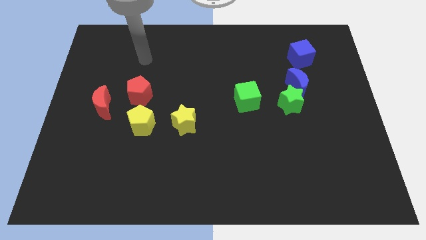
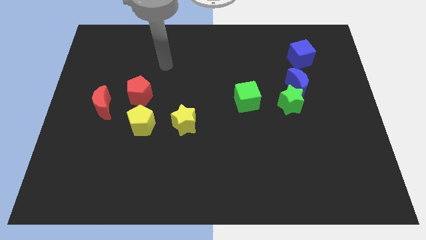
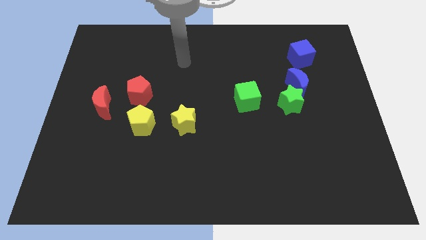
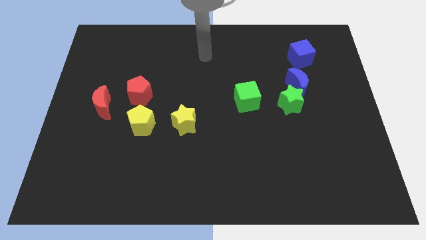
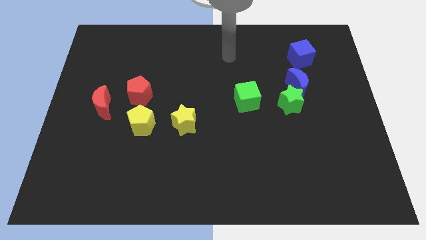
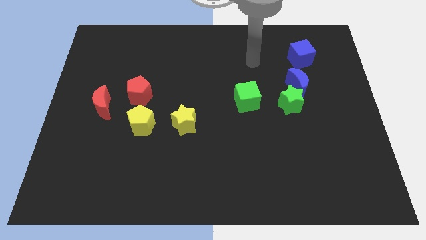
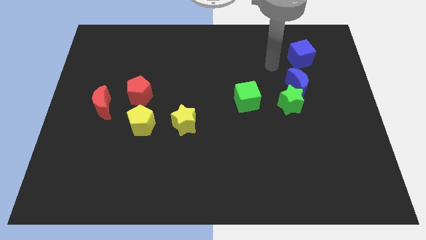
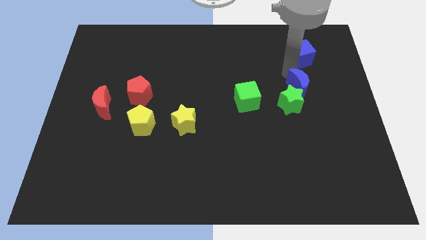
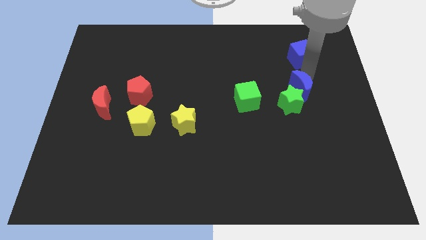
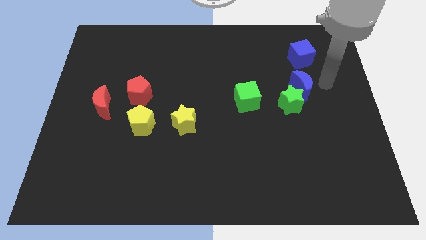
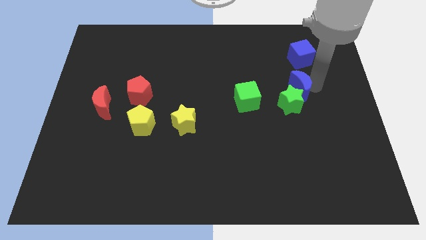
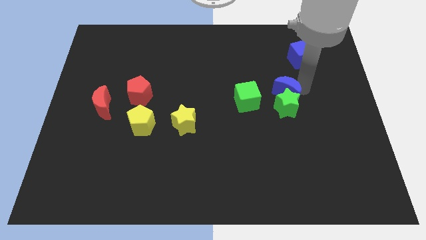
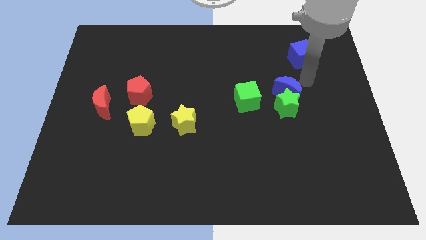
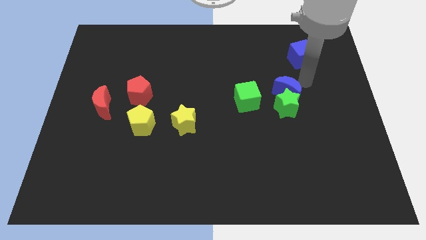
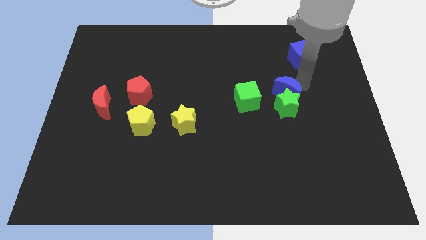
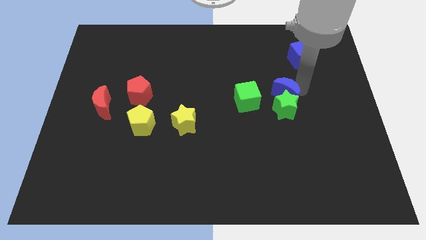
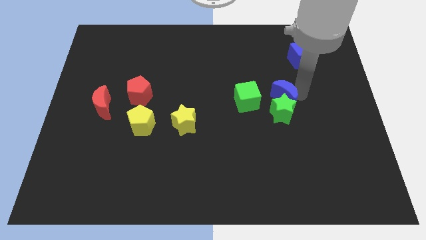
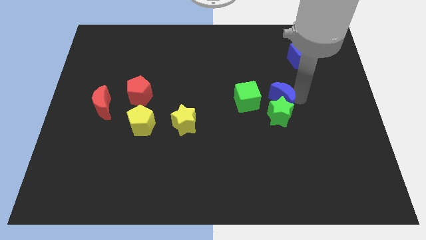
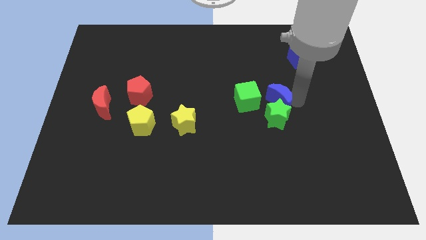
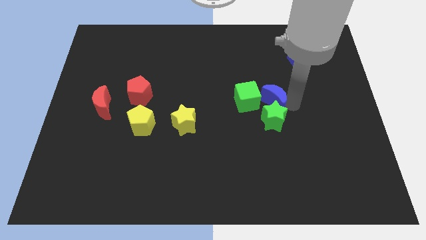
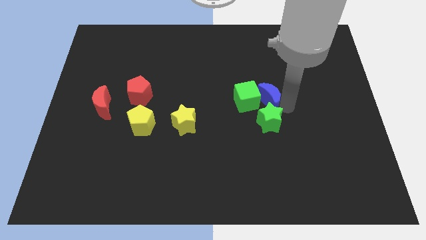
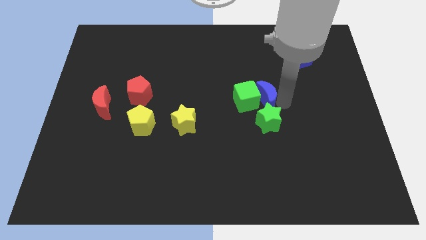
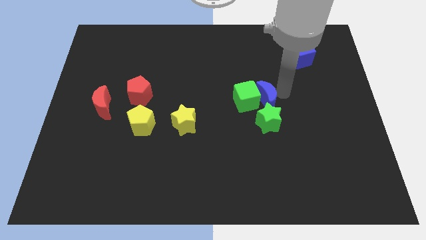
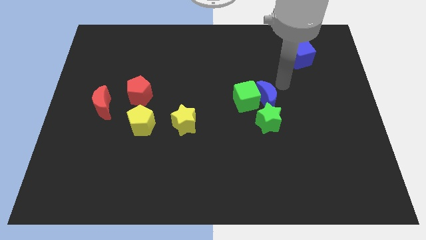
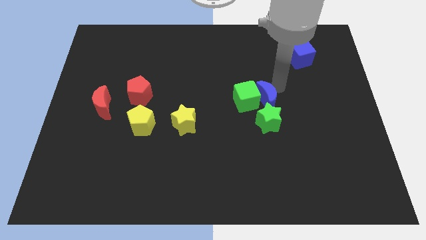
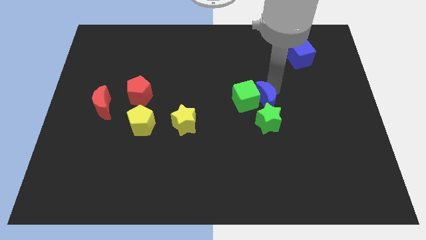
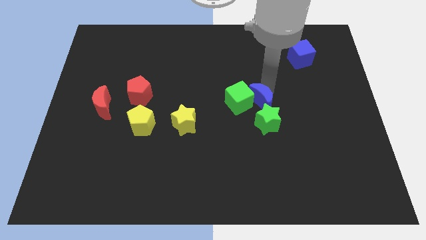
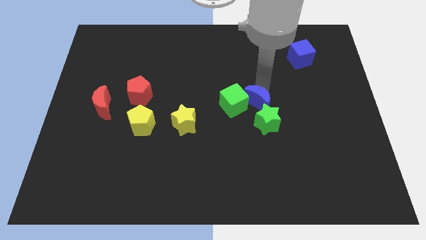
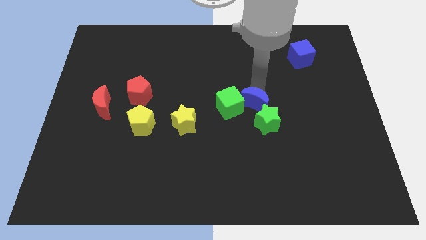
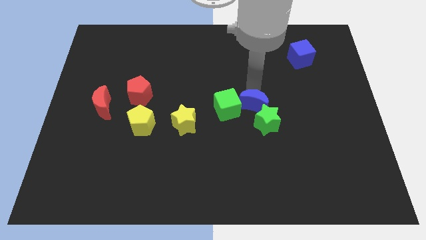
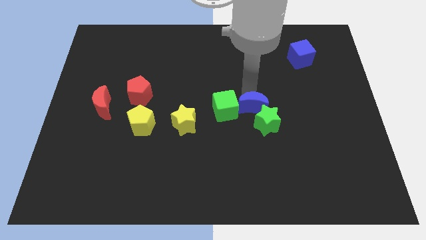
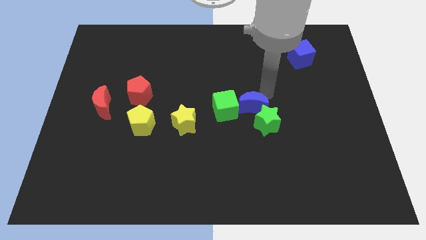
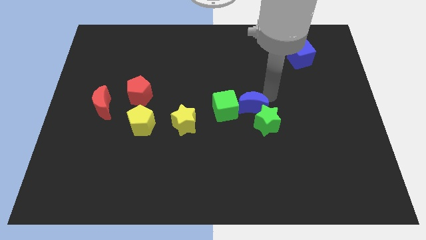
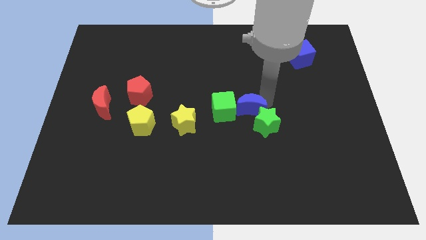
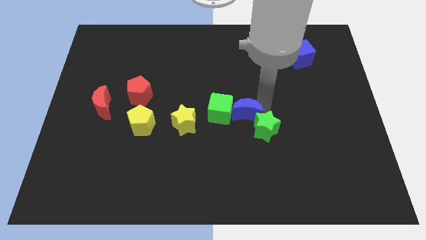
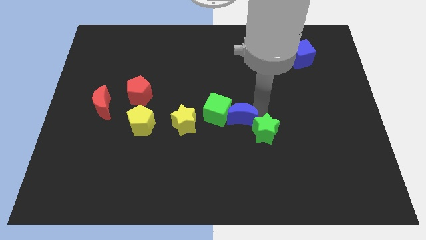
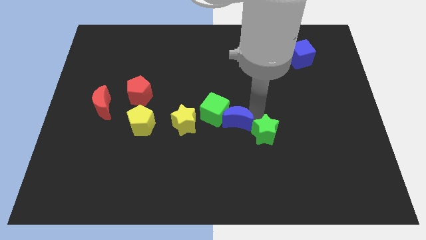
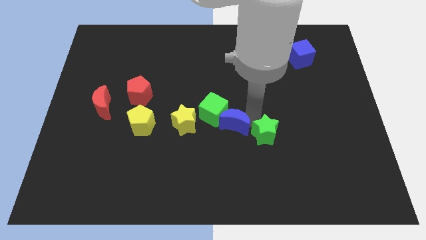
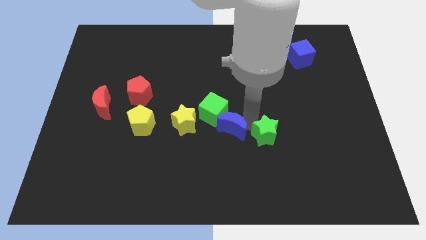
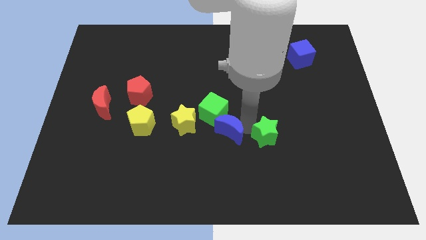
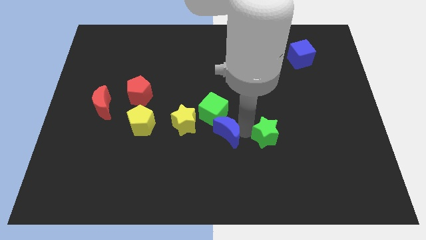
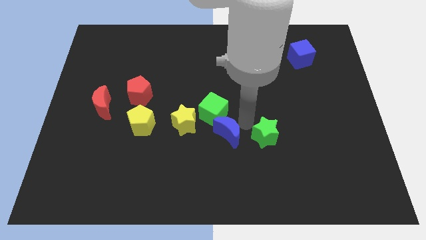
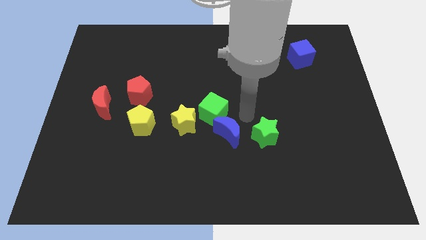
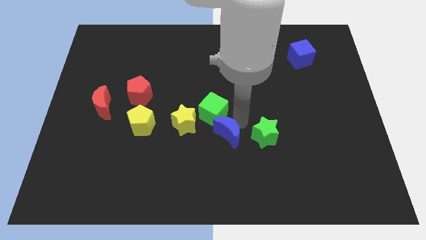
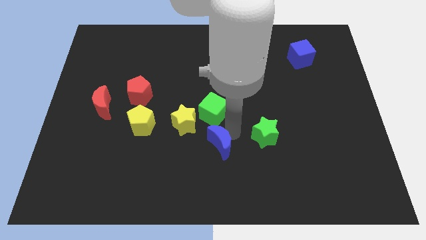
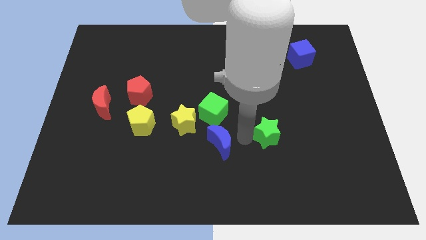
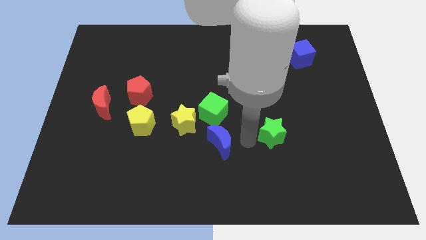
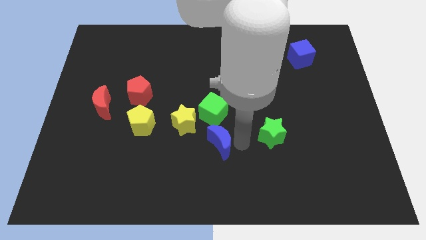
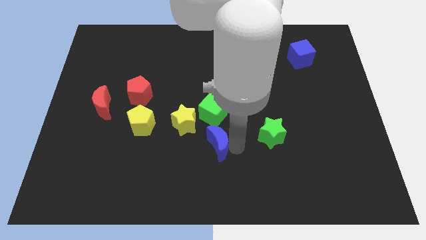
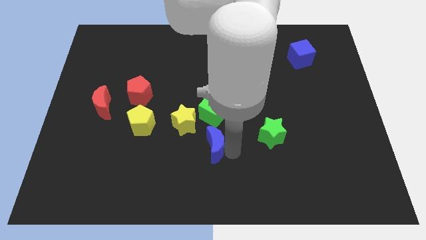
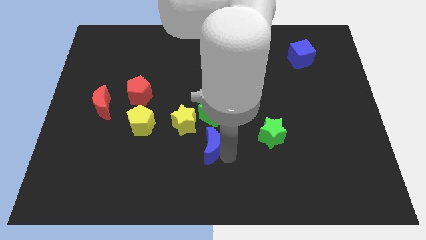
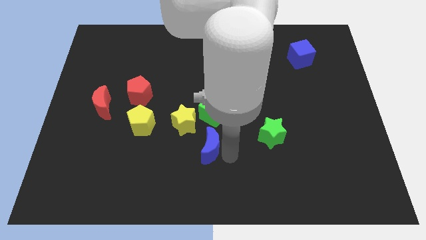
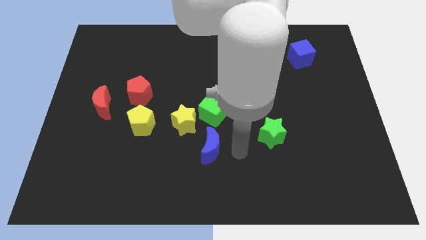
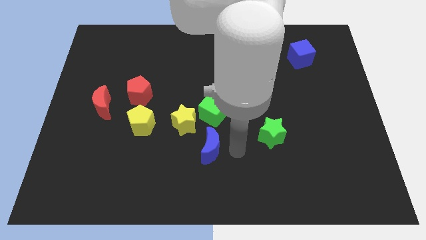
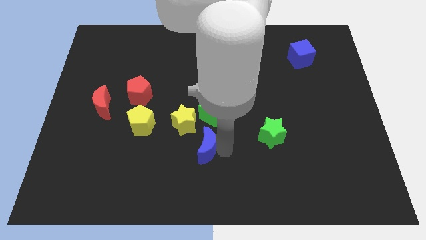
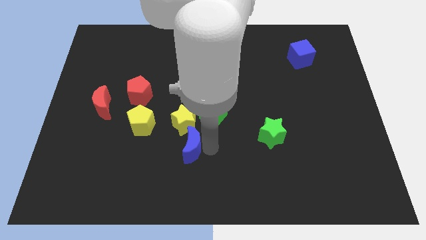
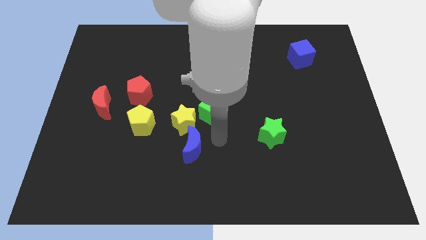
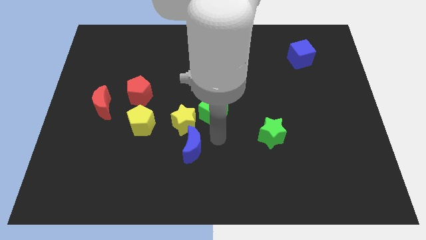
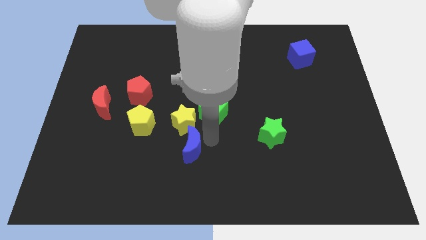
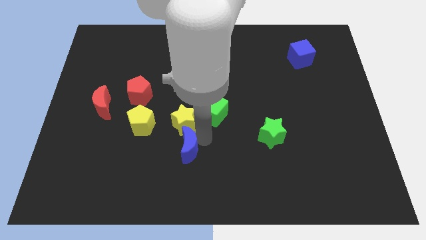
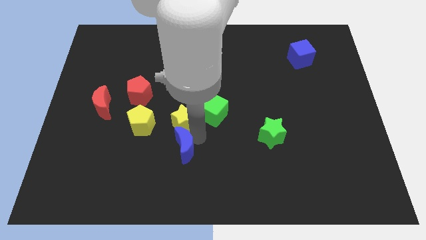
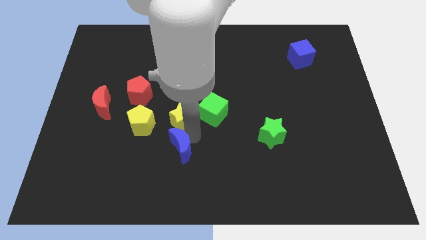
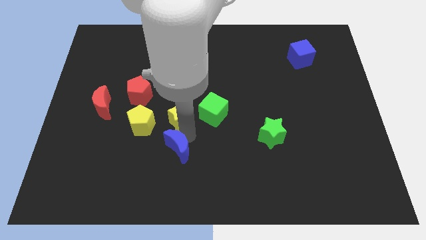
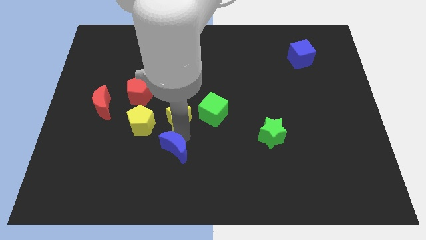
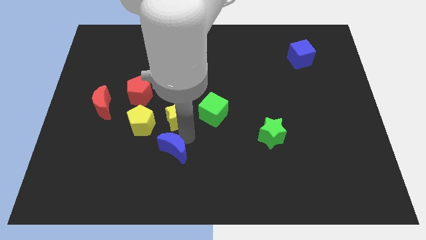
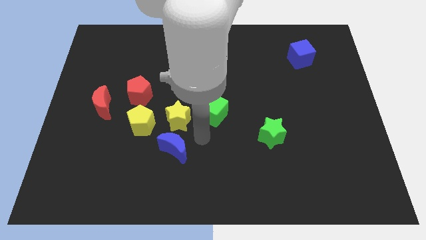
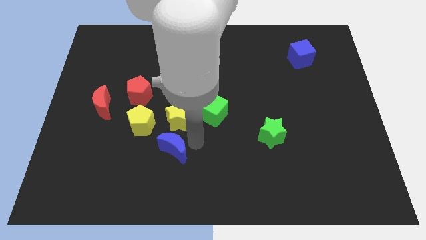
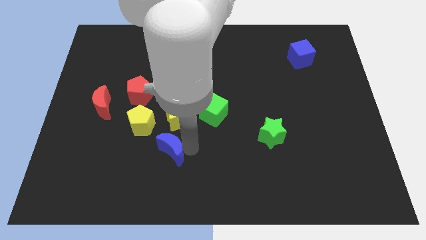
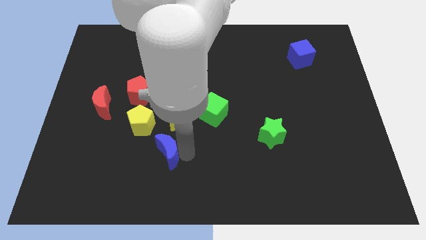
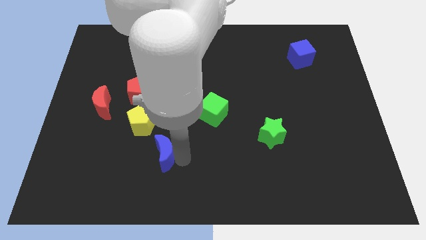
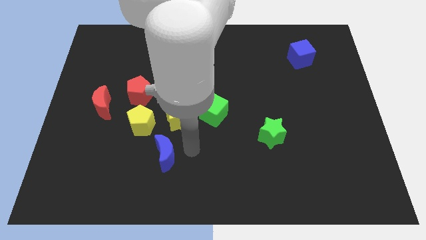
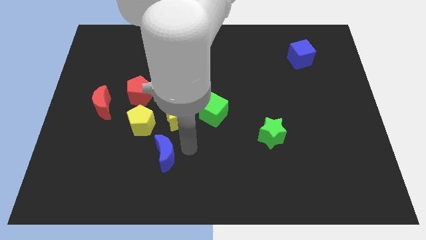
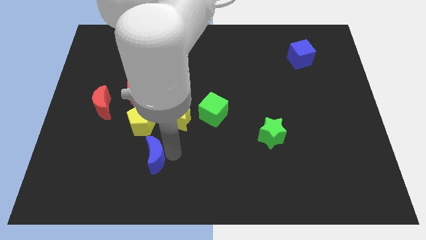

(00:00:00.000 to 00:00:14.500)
put the blue moon to the bottom side of the yellow pentagon

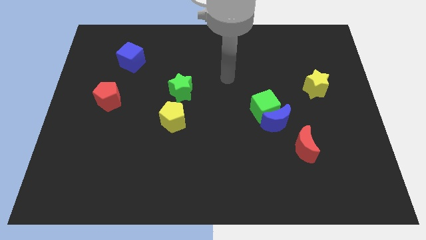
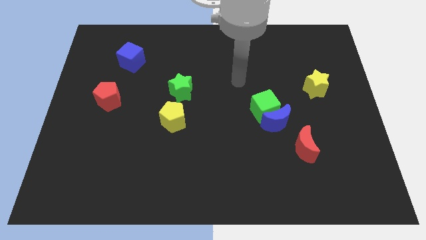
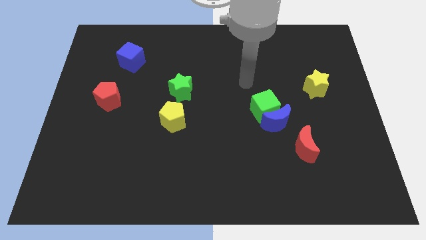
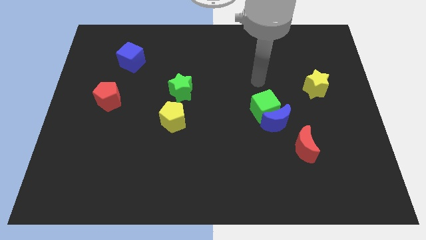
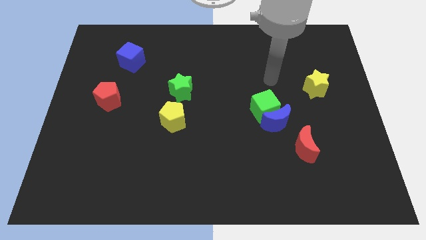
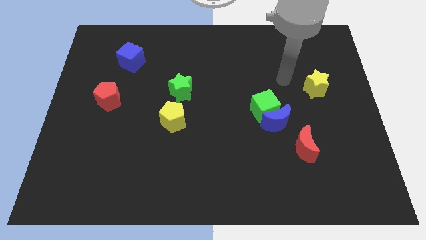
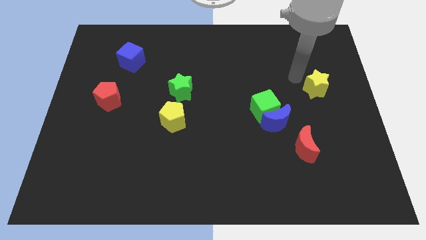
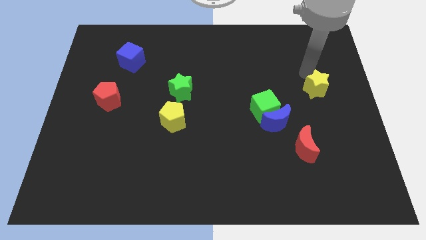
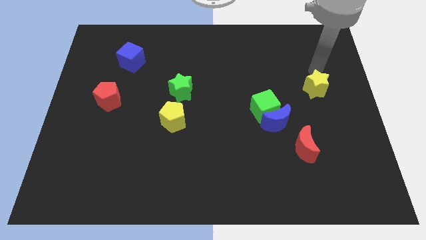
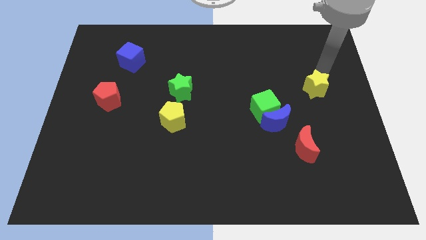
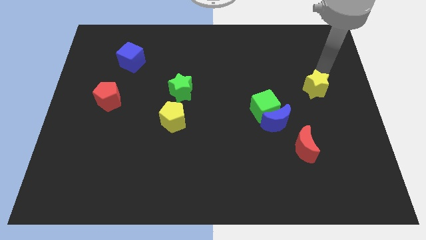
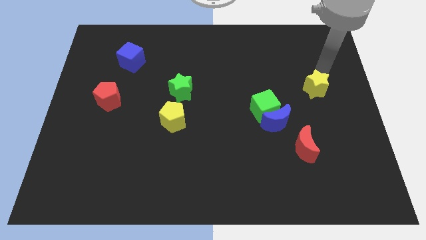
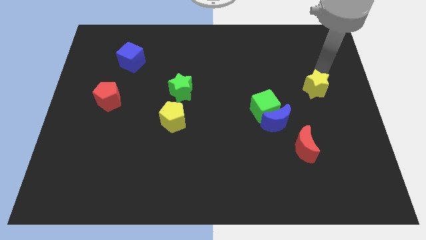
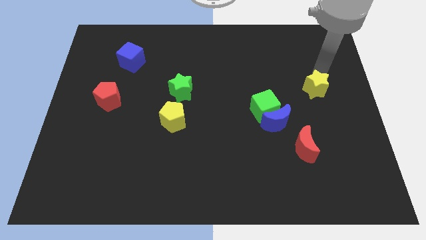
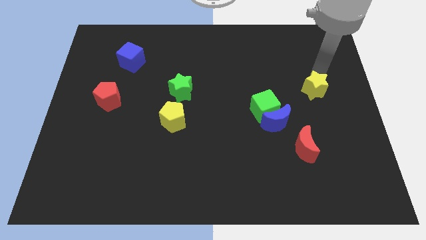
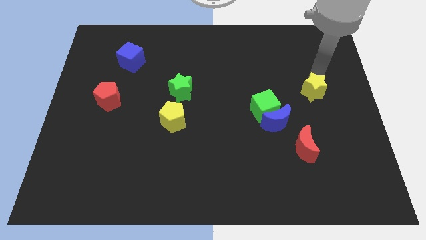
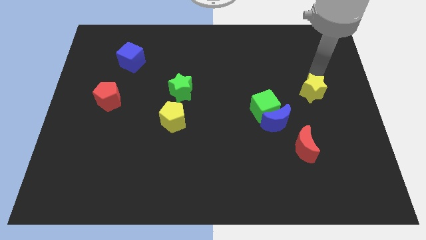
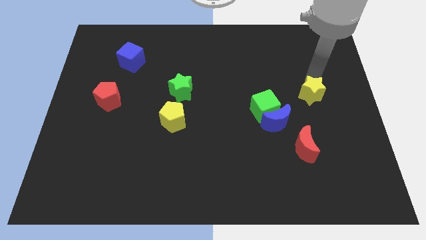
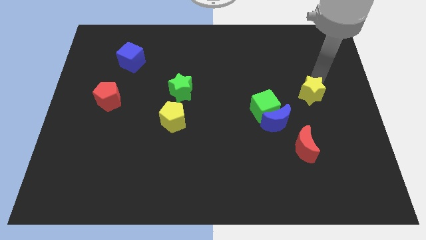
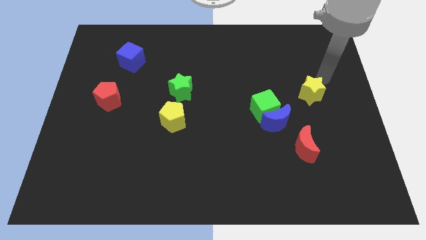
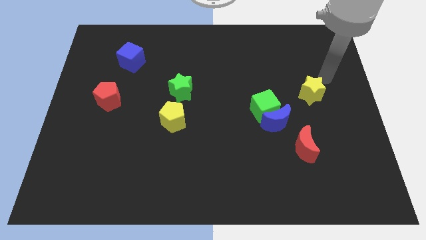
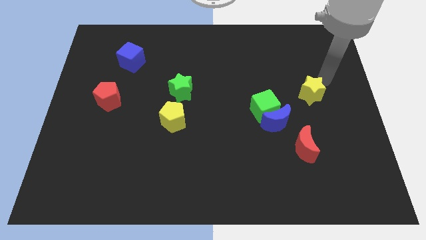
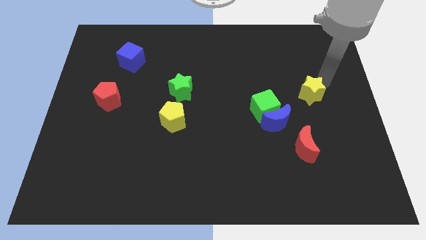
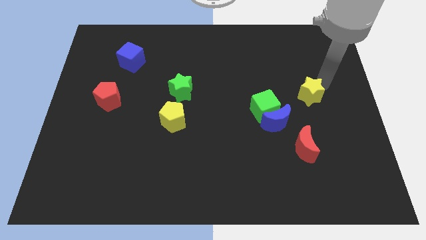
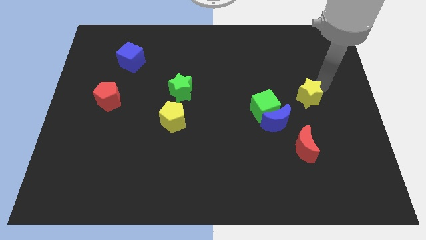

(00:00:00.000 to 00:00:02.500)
slide the yellow star to the top of the red moon
